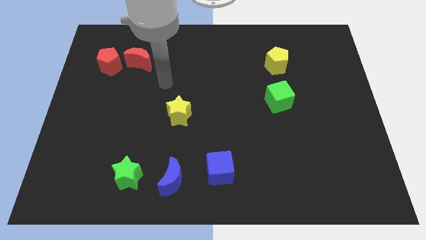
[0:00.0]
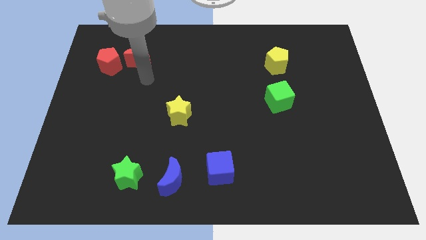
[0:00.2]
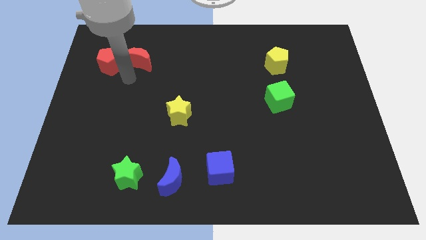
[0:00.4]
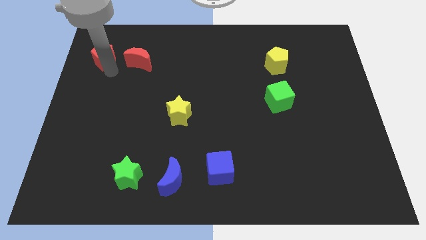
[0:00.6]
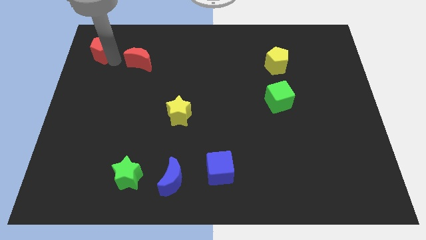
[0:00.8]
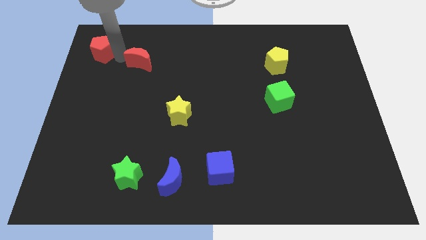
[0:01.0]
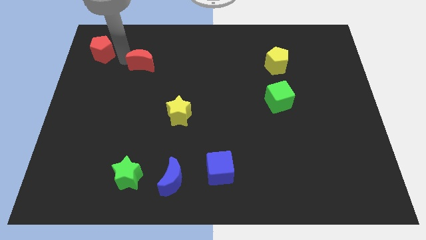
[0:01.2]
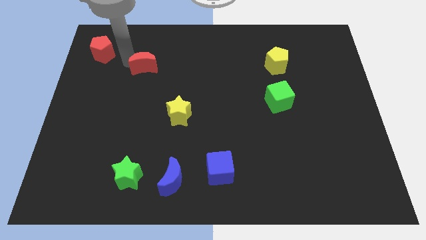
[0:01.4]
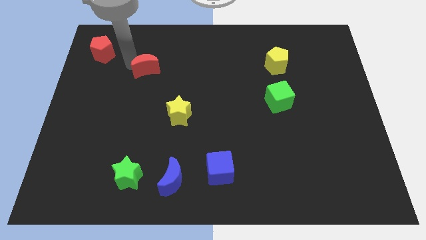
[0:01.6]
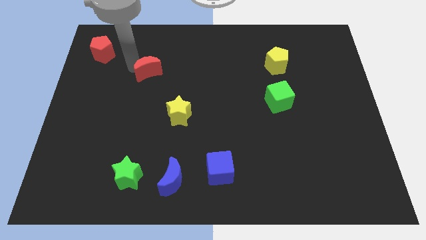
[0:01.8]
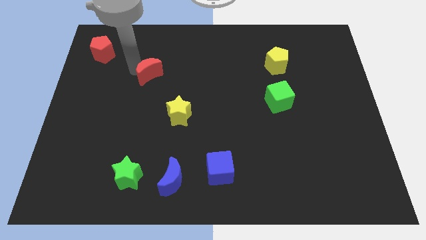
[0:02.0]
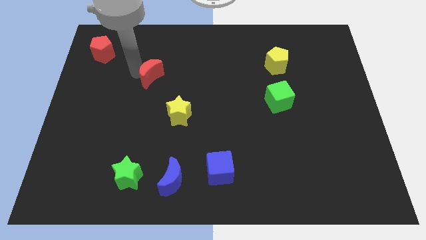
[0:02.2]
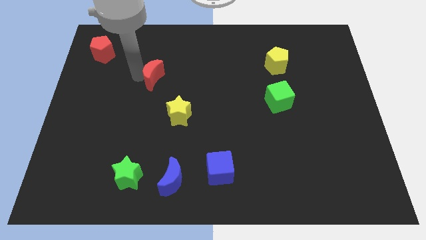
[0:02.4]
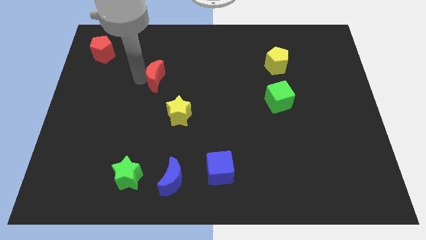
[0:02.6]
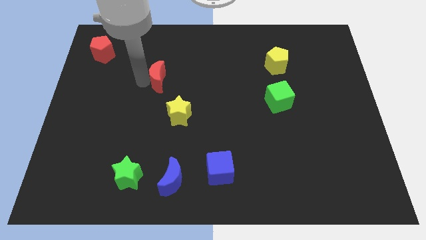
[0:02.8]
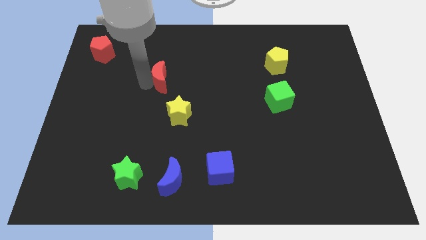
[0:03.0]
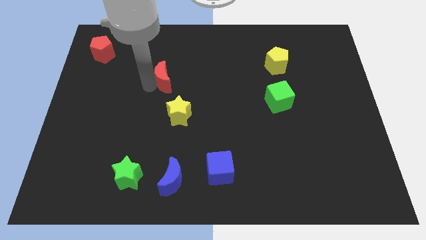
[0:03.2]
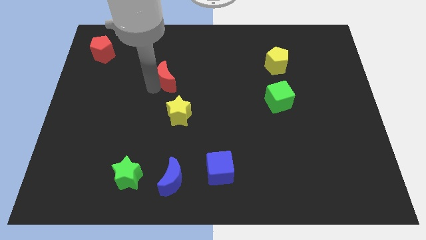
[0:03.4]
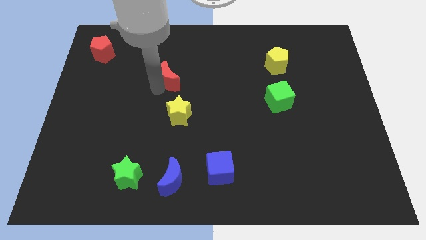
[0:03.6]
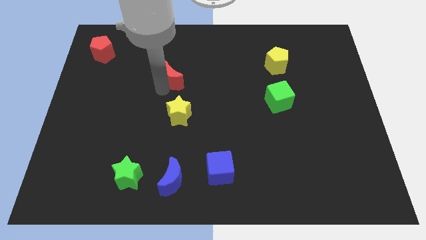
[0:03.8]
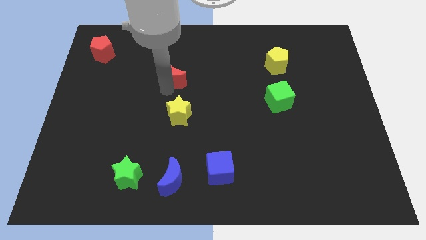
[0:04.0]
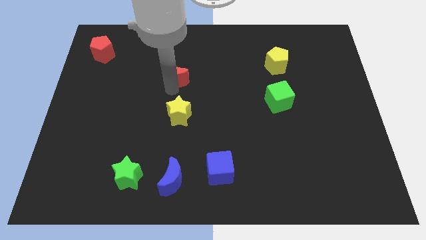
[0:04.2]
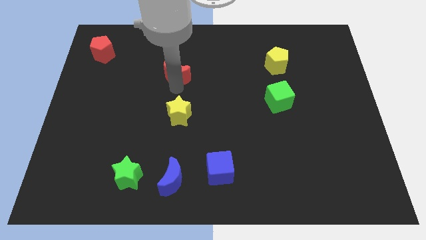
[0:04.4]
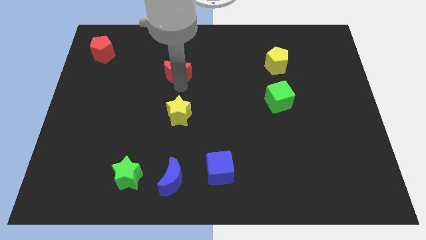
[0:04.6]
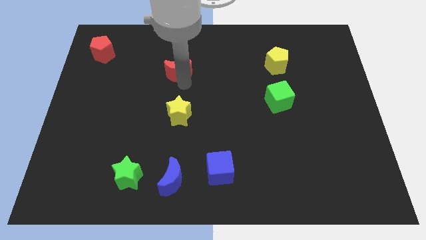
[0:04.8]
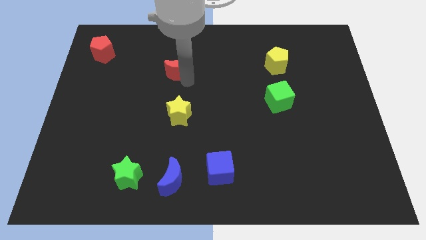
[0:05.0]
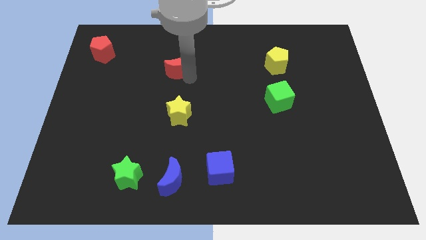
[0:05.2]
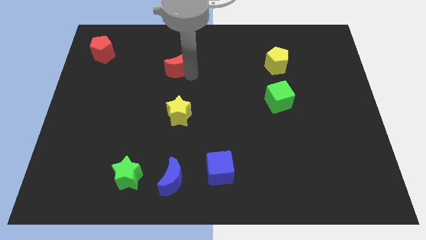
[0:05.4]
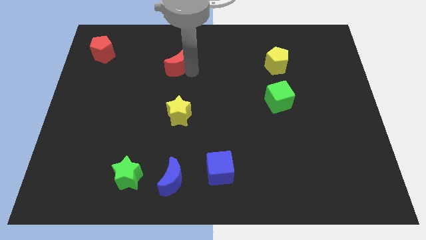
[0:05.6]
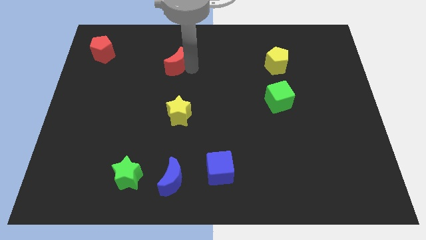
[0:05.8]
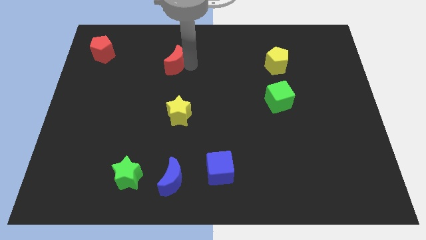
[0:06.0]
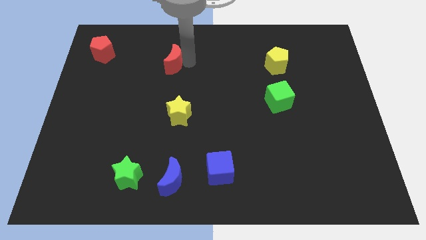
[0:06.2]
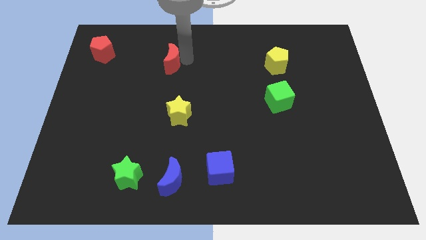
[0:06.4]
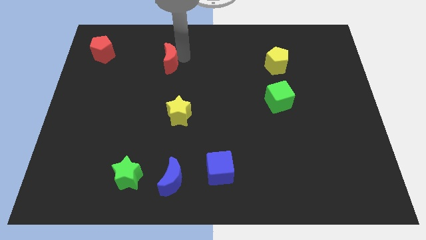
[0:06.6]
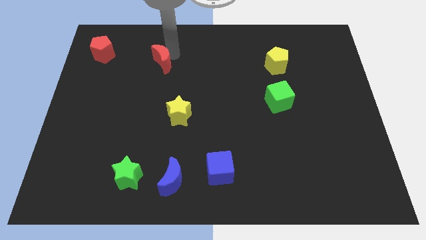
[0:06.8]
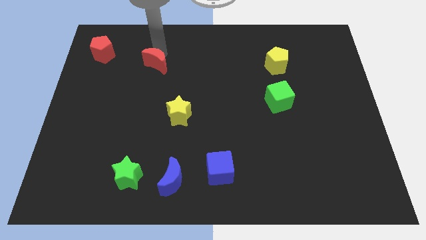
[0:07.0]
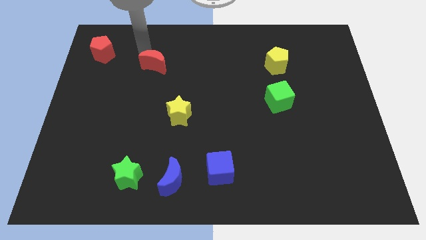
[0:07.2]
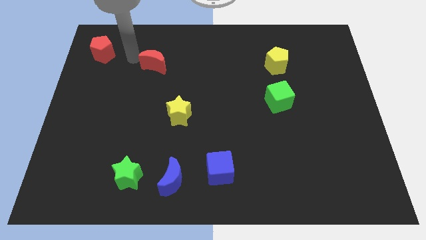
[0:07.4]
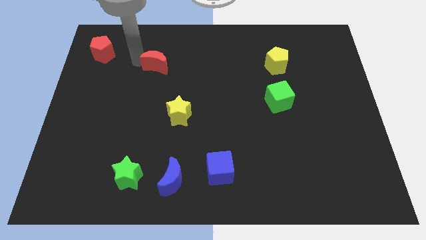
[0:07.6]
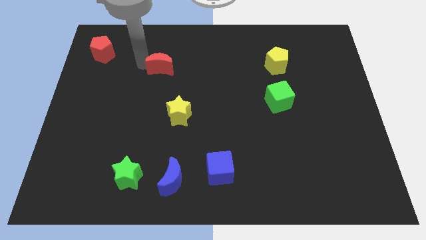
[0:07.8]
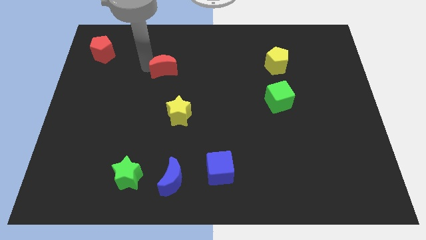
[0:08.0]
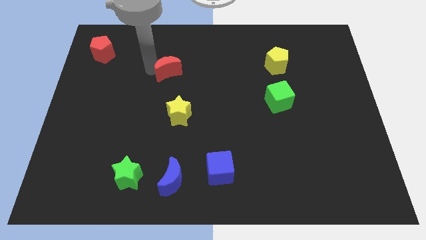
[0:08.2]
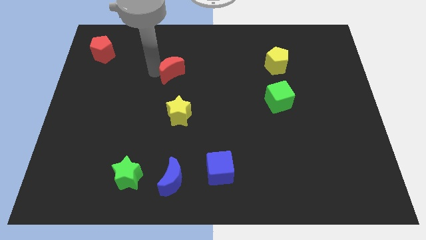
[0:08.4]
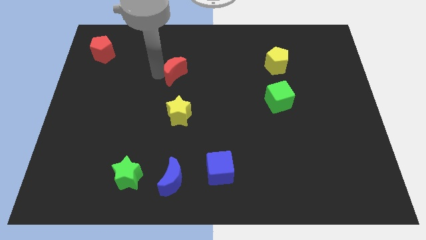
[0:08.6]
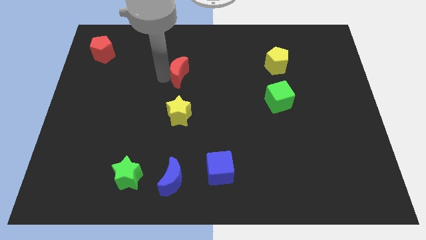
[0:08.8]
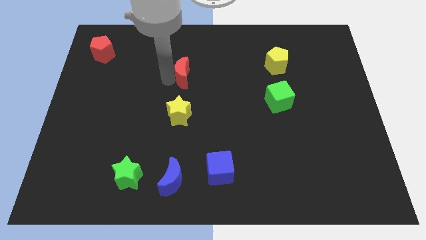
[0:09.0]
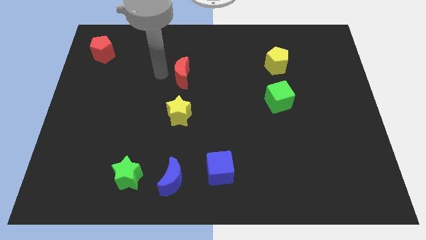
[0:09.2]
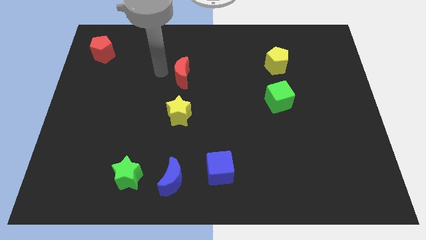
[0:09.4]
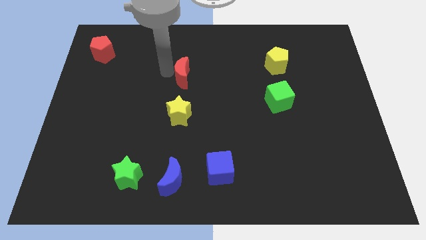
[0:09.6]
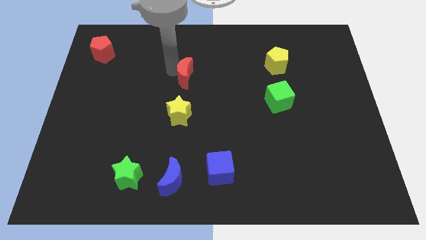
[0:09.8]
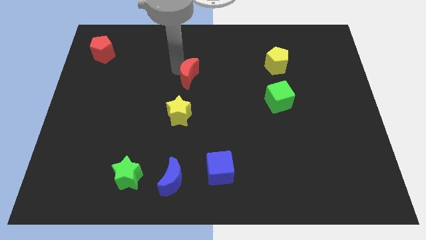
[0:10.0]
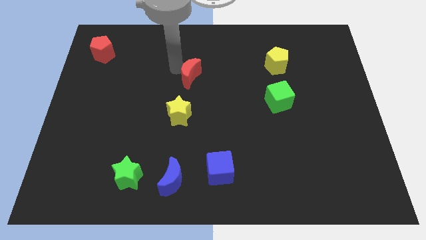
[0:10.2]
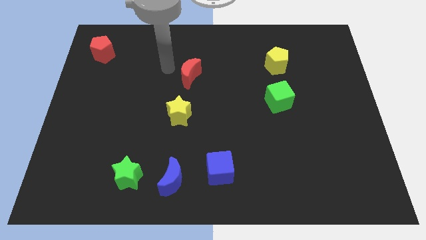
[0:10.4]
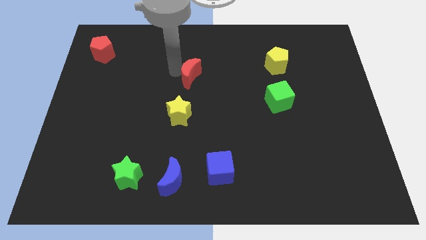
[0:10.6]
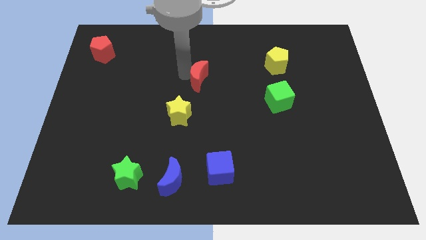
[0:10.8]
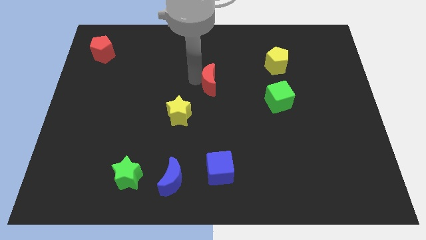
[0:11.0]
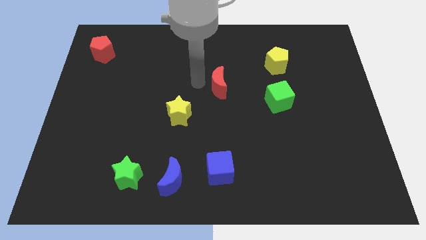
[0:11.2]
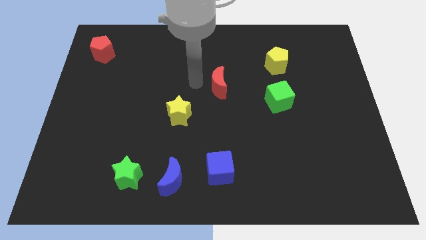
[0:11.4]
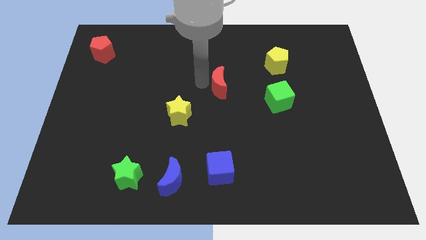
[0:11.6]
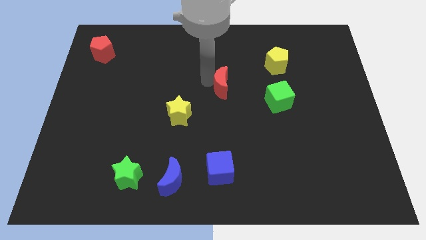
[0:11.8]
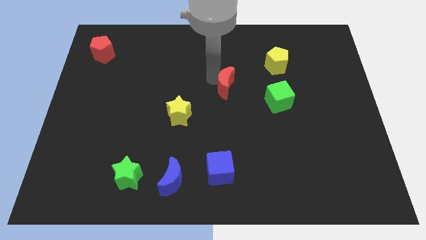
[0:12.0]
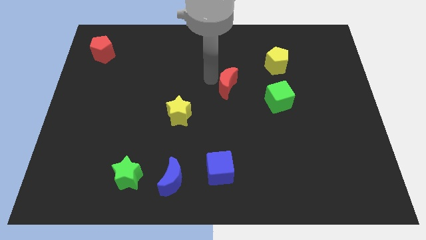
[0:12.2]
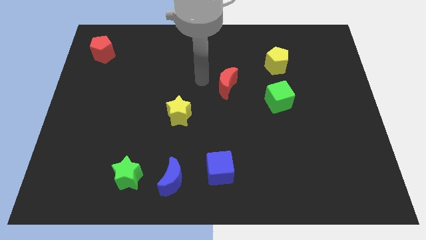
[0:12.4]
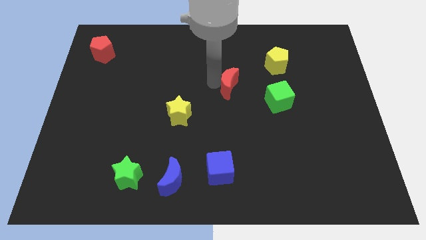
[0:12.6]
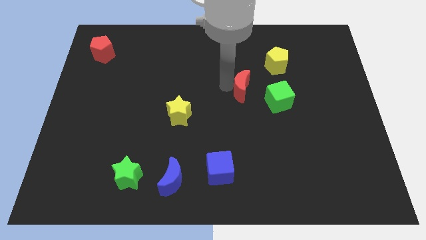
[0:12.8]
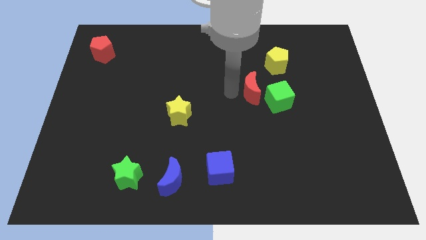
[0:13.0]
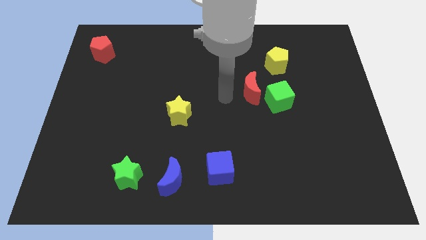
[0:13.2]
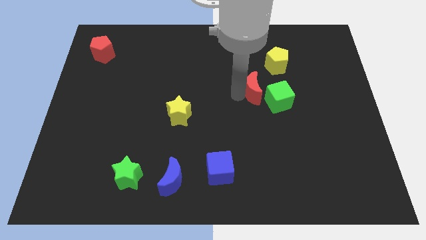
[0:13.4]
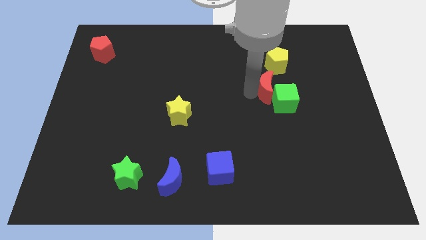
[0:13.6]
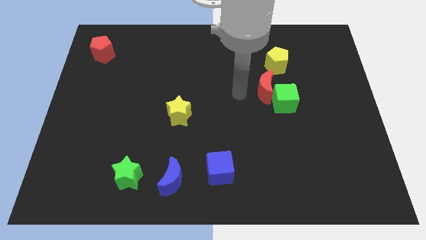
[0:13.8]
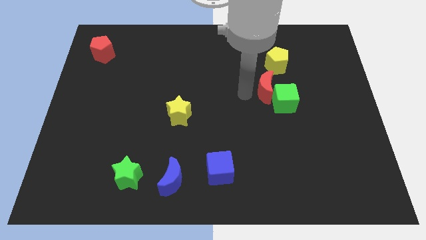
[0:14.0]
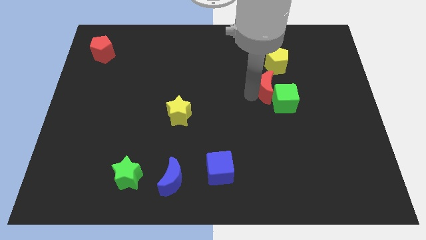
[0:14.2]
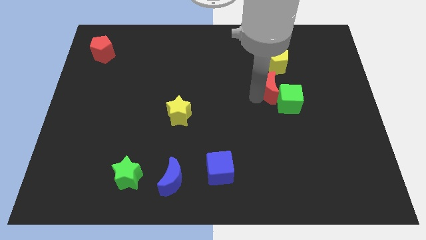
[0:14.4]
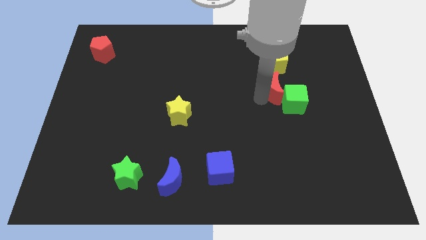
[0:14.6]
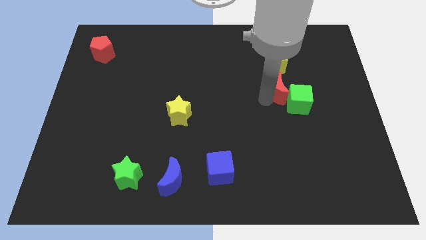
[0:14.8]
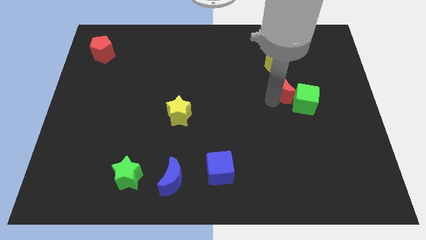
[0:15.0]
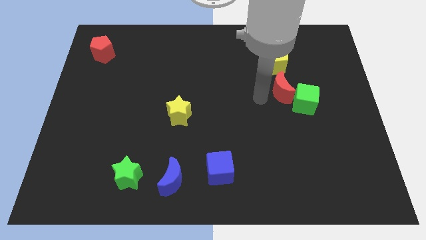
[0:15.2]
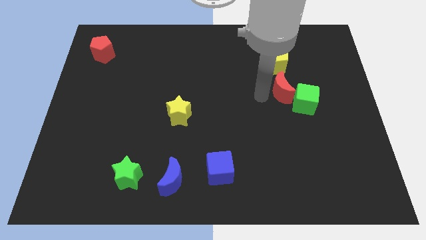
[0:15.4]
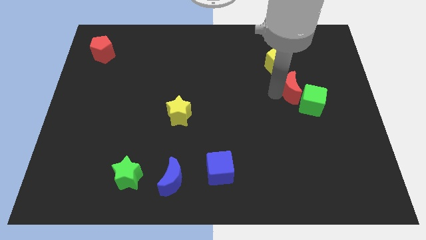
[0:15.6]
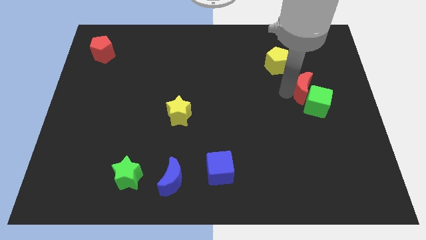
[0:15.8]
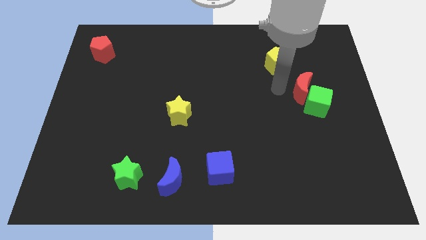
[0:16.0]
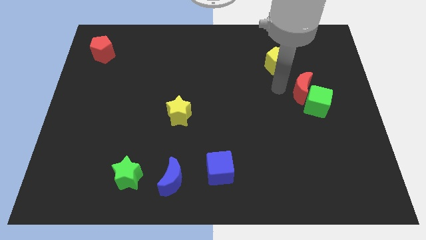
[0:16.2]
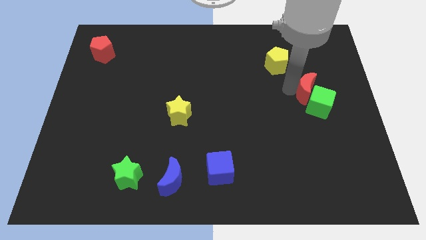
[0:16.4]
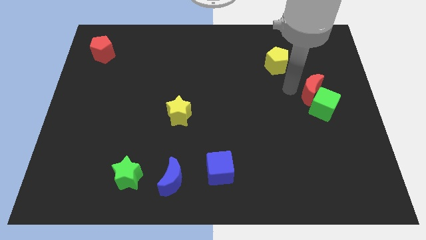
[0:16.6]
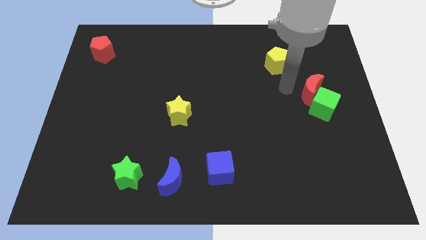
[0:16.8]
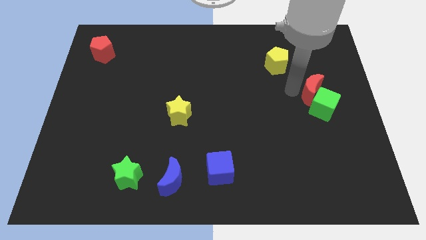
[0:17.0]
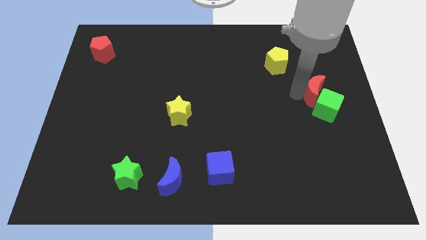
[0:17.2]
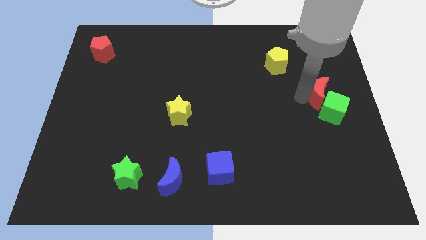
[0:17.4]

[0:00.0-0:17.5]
put the red moon to the right side
